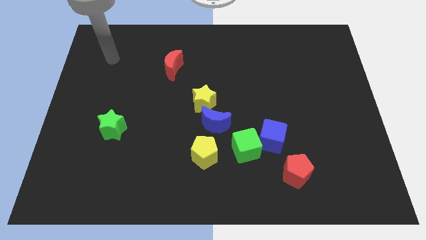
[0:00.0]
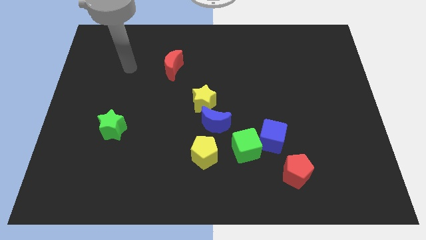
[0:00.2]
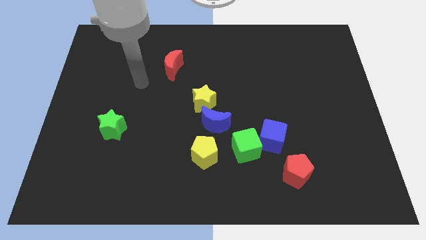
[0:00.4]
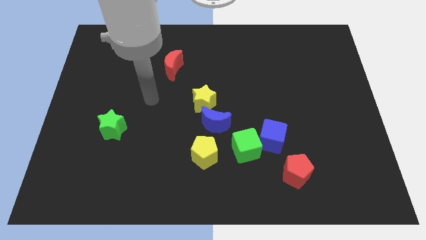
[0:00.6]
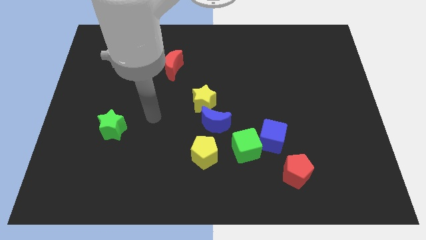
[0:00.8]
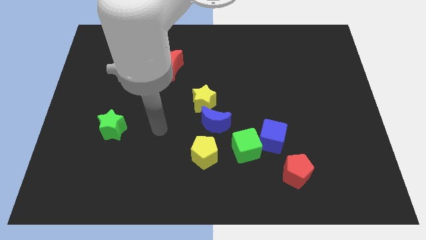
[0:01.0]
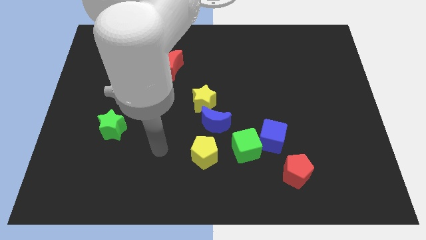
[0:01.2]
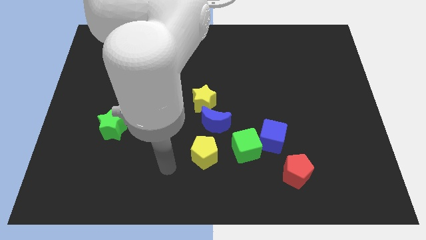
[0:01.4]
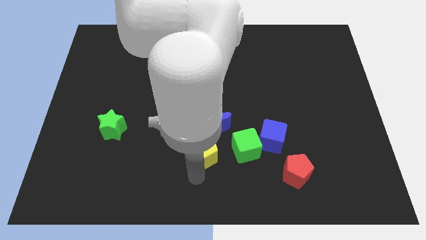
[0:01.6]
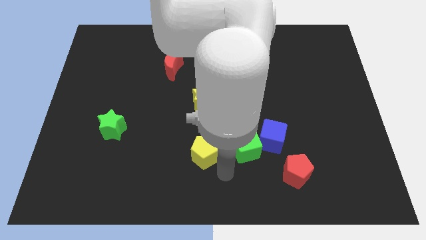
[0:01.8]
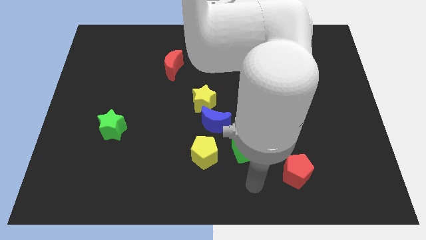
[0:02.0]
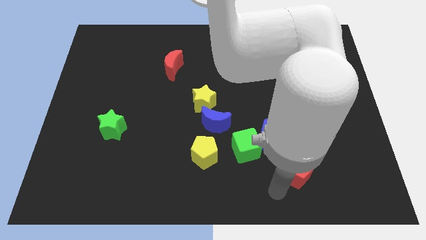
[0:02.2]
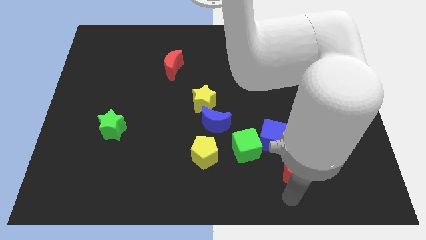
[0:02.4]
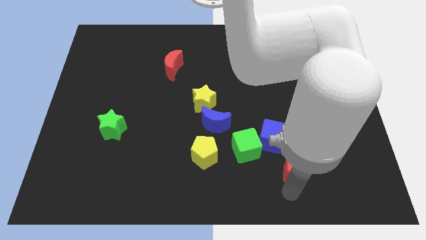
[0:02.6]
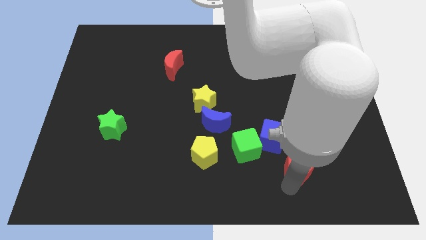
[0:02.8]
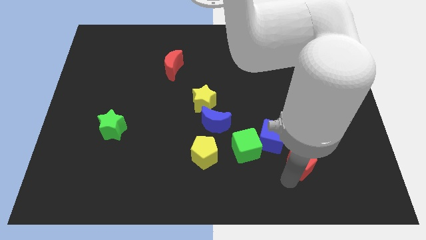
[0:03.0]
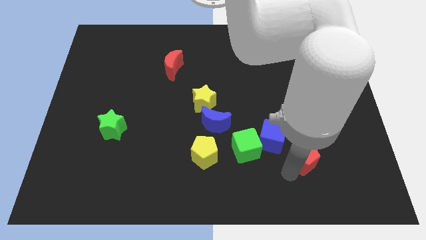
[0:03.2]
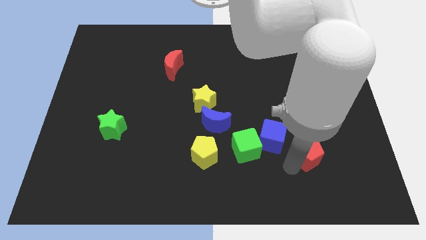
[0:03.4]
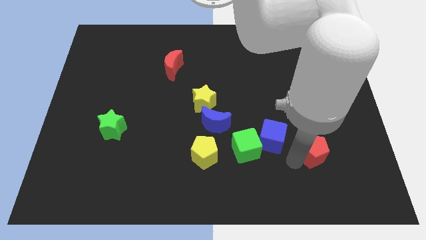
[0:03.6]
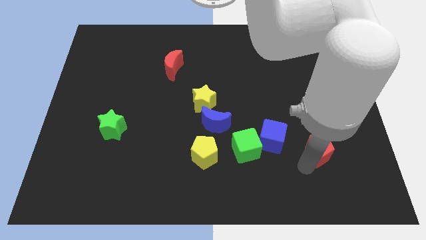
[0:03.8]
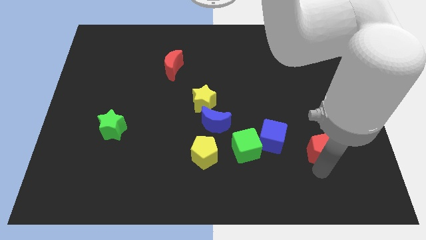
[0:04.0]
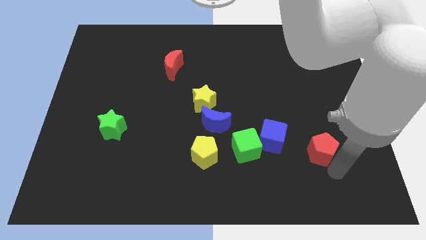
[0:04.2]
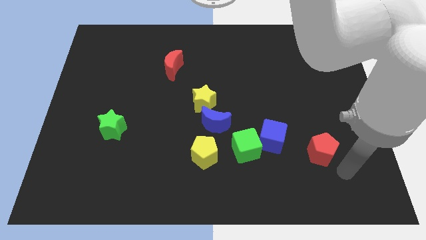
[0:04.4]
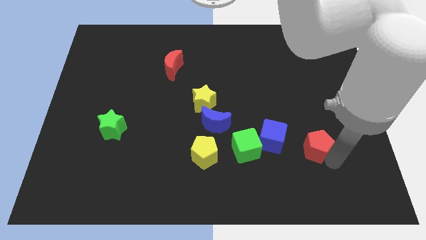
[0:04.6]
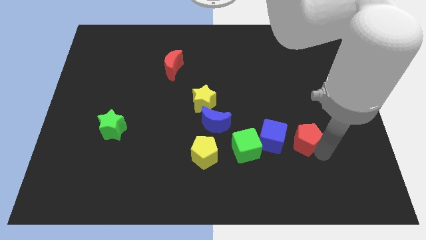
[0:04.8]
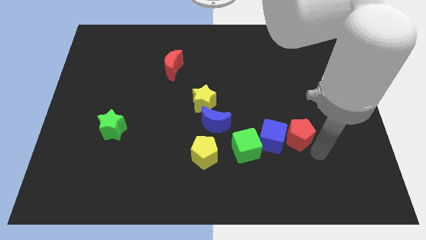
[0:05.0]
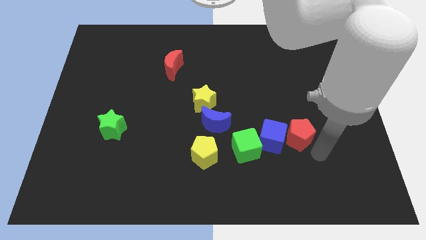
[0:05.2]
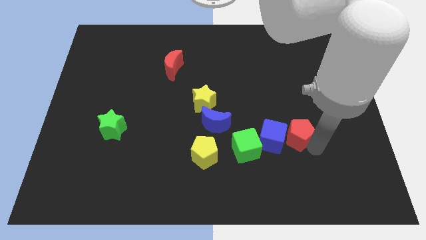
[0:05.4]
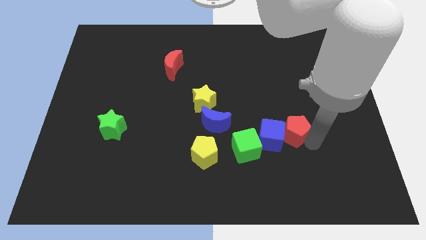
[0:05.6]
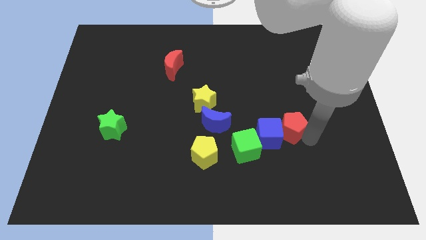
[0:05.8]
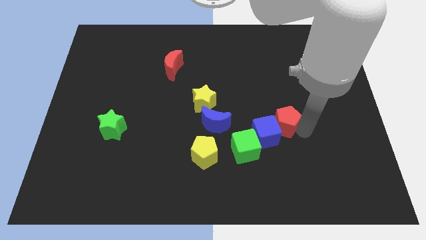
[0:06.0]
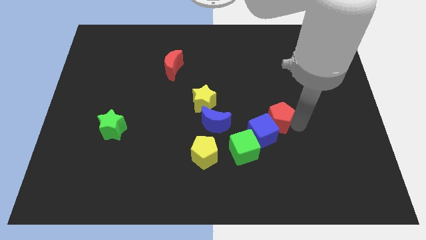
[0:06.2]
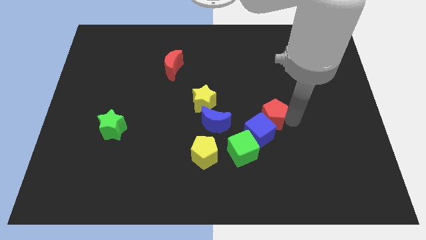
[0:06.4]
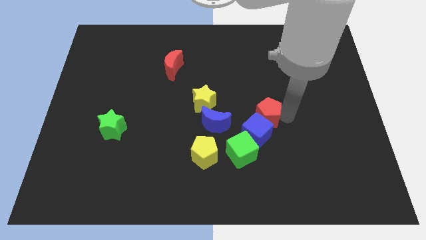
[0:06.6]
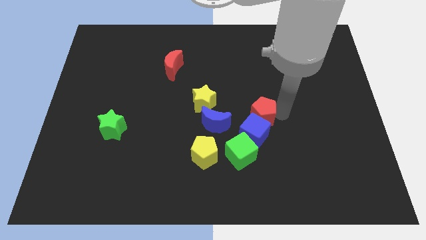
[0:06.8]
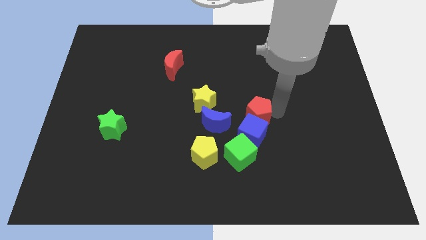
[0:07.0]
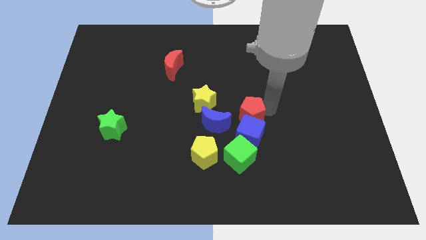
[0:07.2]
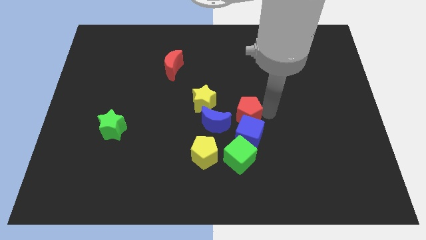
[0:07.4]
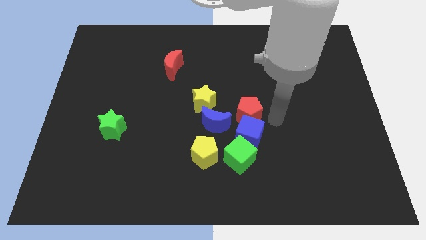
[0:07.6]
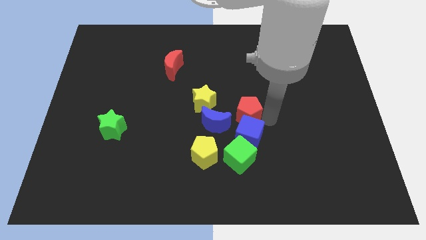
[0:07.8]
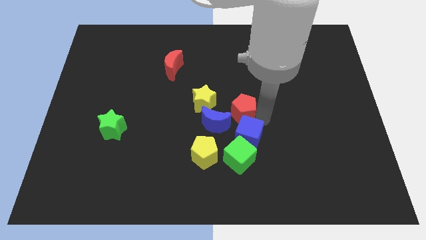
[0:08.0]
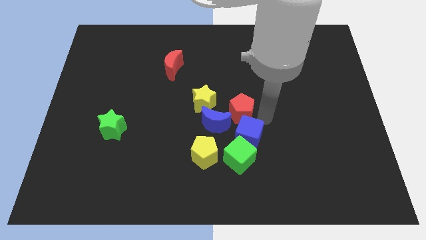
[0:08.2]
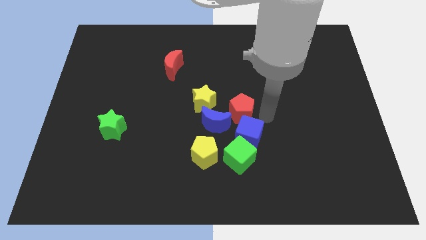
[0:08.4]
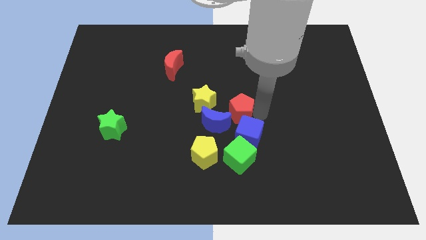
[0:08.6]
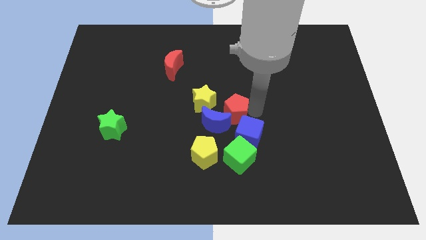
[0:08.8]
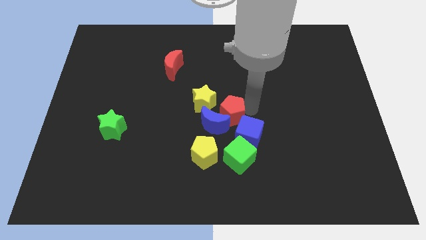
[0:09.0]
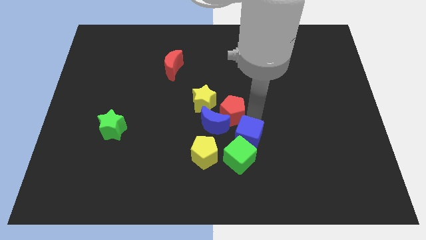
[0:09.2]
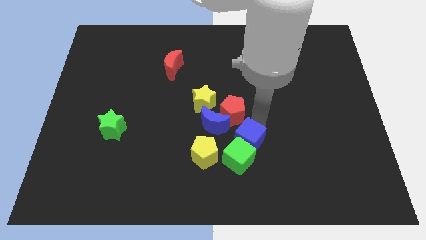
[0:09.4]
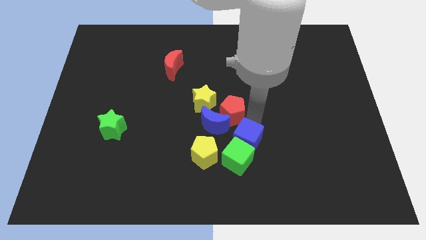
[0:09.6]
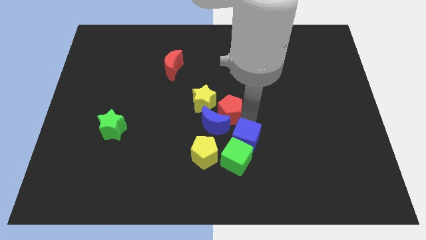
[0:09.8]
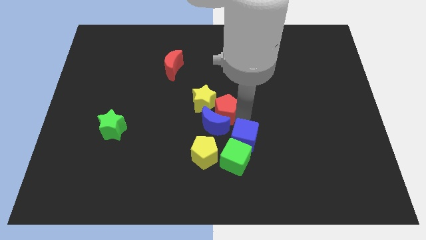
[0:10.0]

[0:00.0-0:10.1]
push the red pentagon close to the yellow star

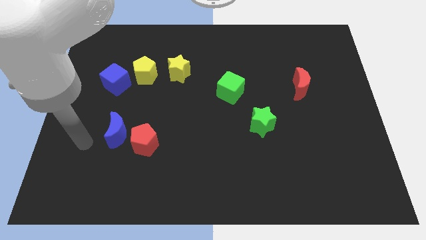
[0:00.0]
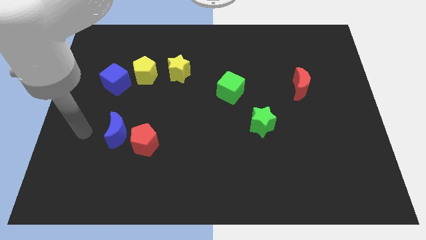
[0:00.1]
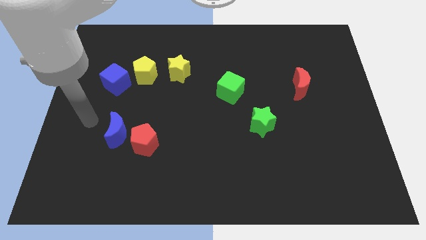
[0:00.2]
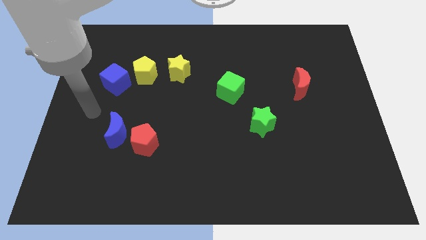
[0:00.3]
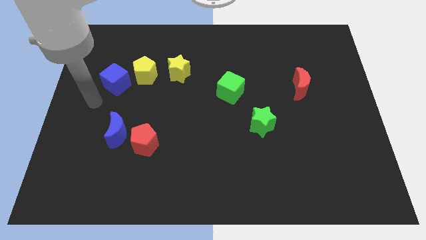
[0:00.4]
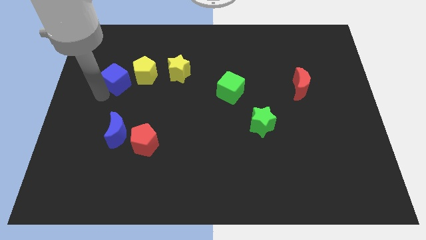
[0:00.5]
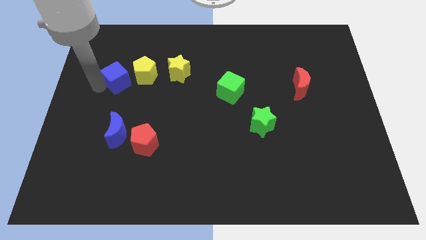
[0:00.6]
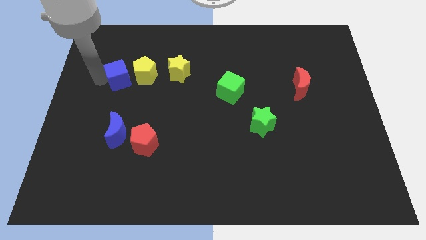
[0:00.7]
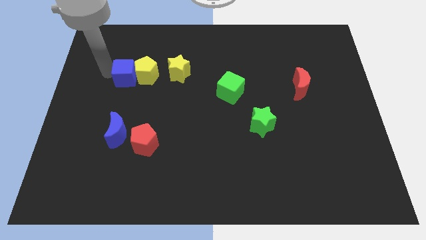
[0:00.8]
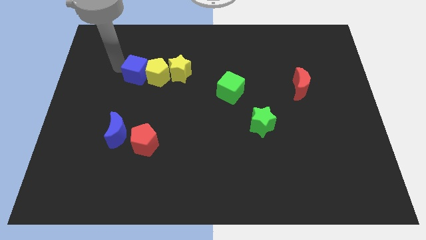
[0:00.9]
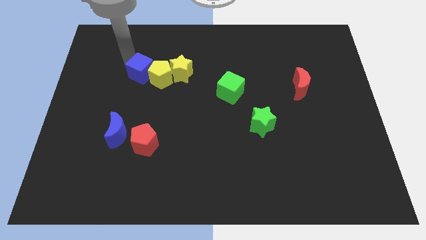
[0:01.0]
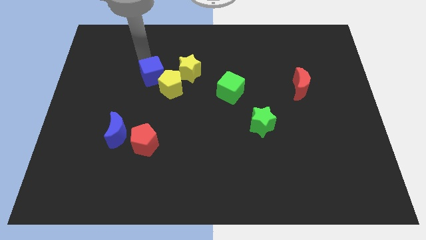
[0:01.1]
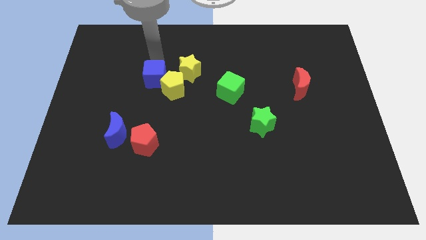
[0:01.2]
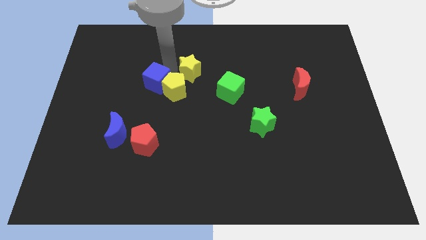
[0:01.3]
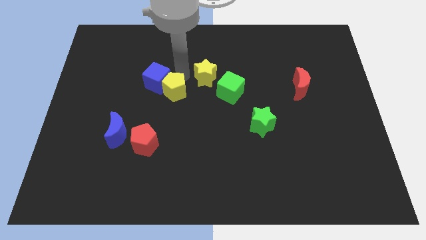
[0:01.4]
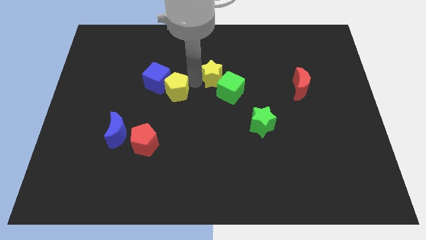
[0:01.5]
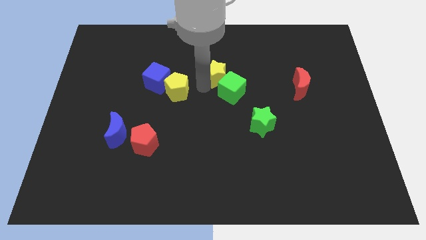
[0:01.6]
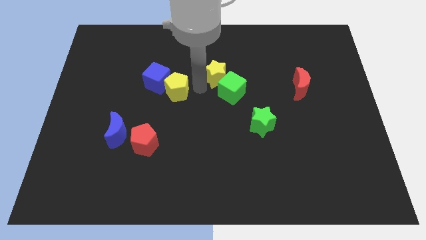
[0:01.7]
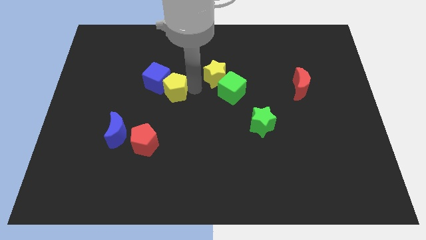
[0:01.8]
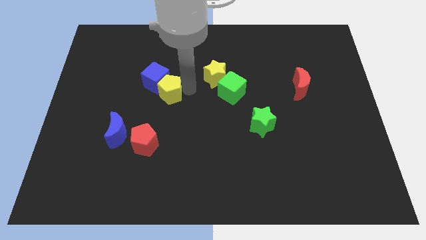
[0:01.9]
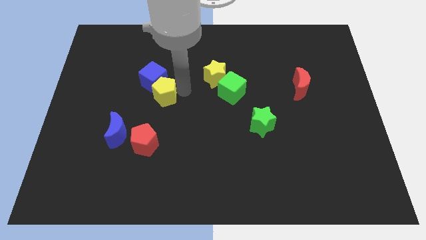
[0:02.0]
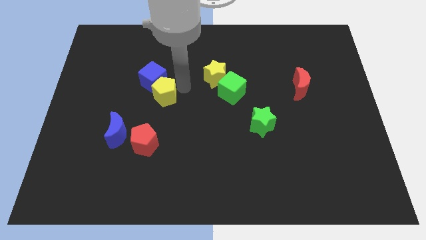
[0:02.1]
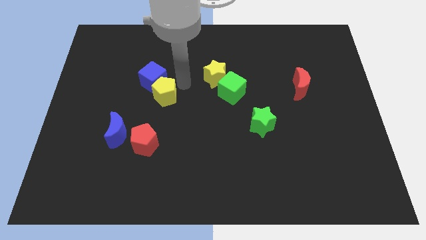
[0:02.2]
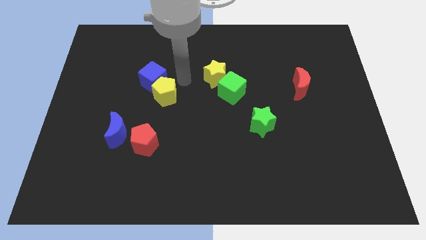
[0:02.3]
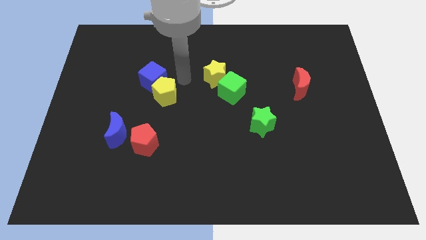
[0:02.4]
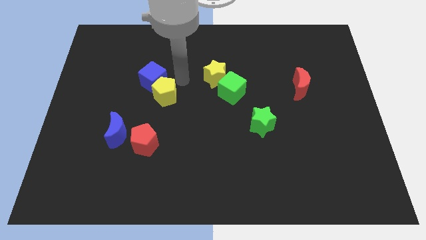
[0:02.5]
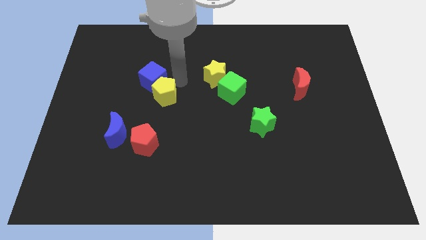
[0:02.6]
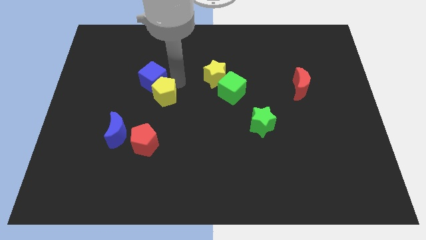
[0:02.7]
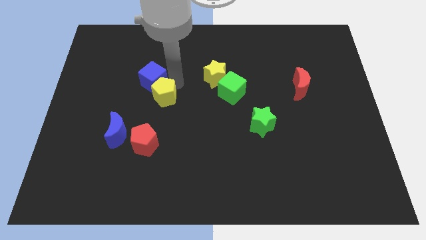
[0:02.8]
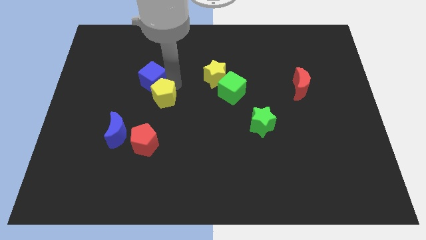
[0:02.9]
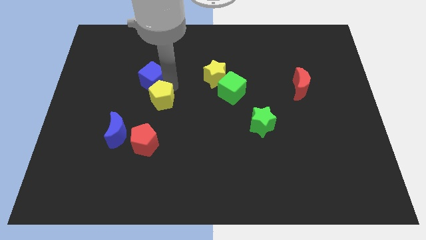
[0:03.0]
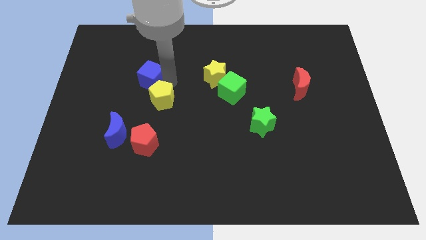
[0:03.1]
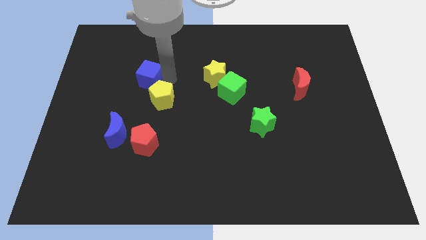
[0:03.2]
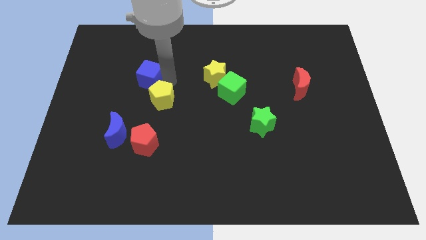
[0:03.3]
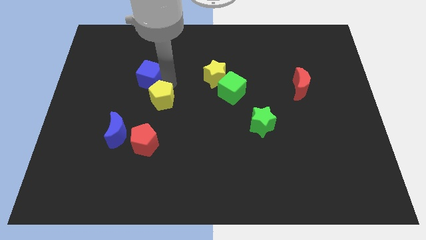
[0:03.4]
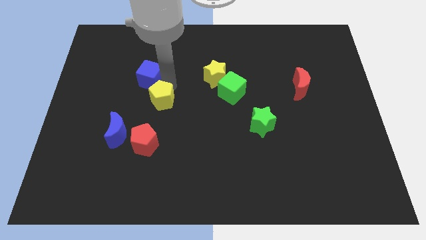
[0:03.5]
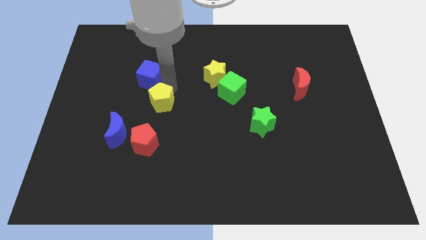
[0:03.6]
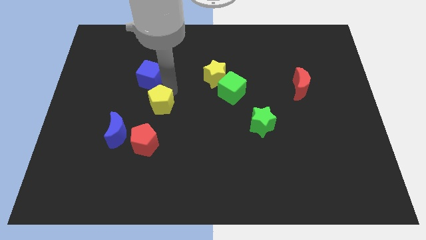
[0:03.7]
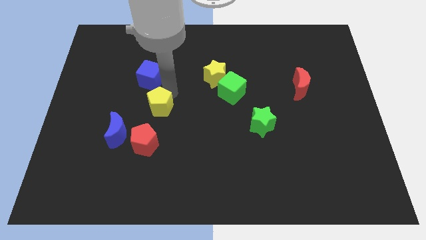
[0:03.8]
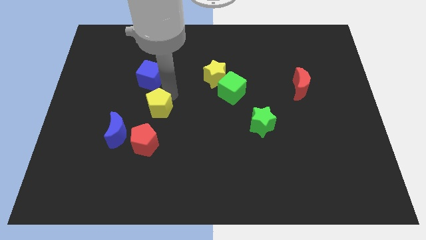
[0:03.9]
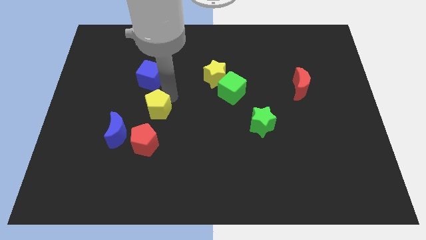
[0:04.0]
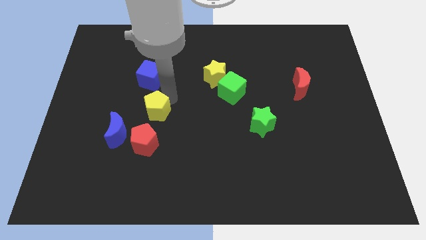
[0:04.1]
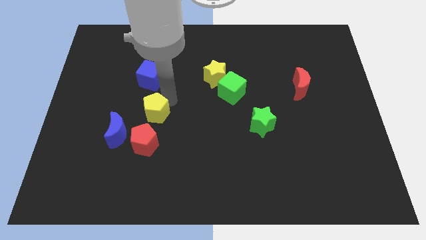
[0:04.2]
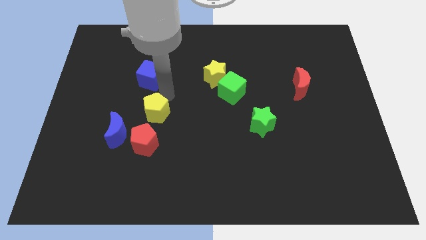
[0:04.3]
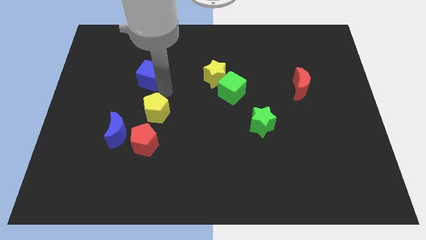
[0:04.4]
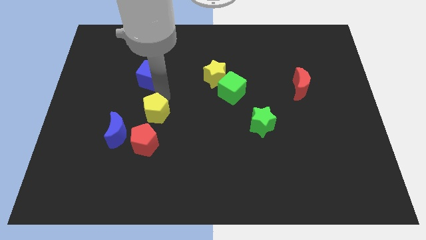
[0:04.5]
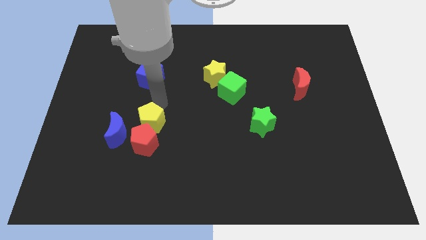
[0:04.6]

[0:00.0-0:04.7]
put the yellow pentagon close to the red pentagon
